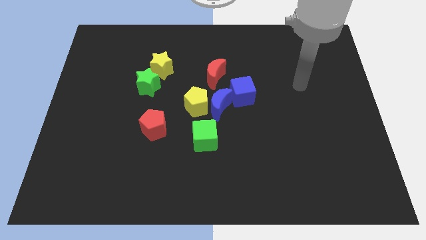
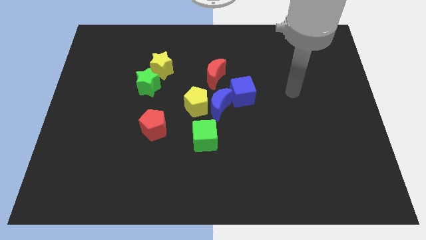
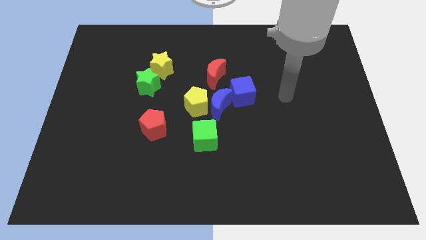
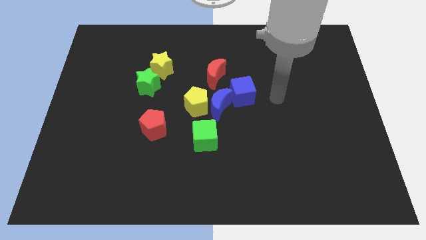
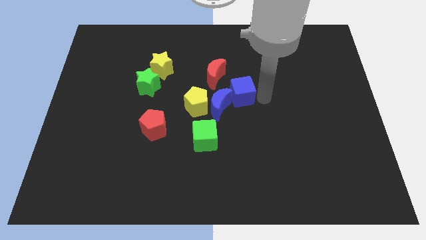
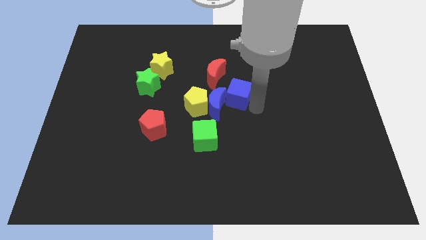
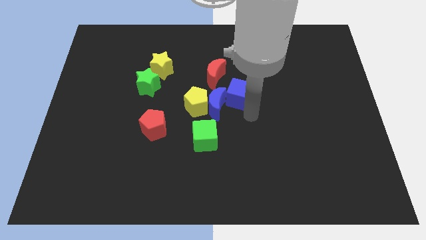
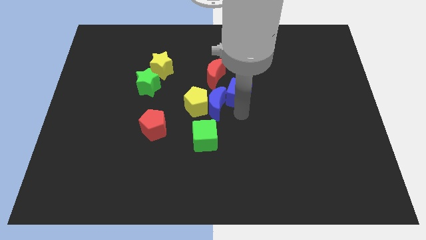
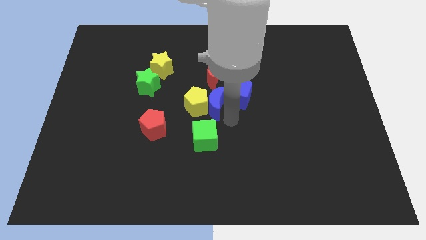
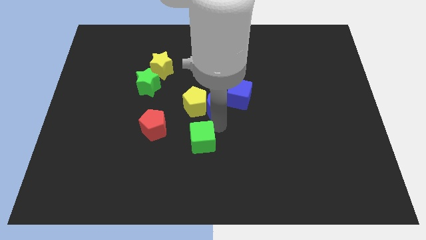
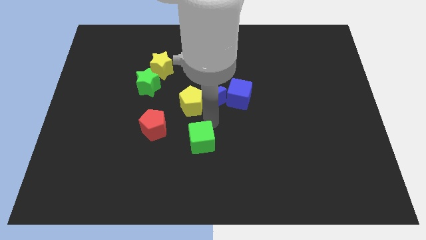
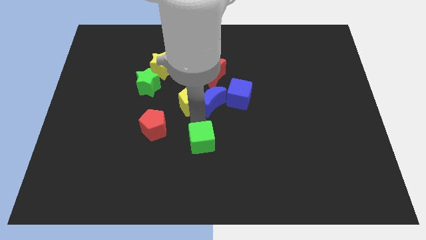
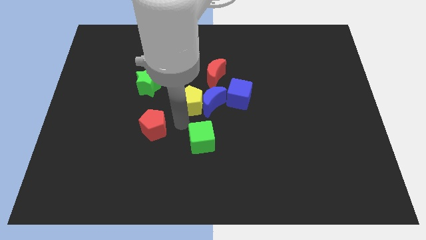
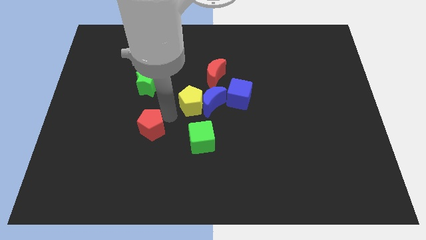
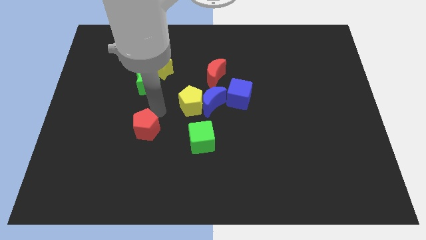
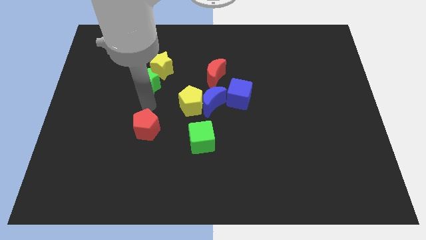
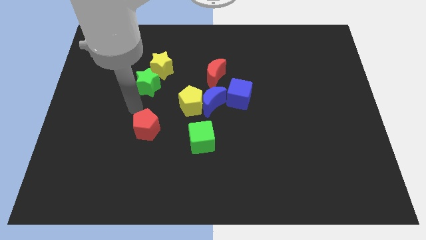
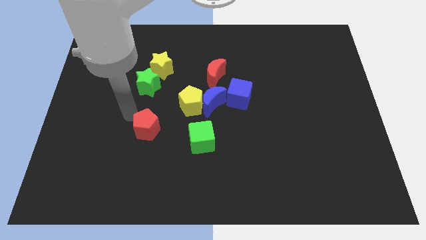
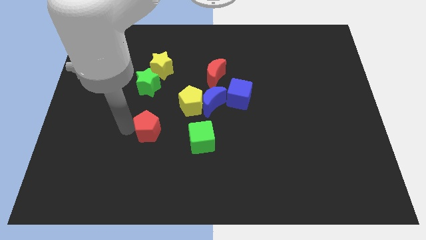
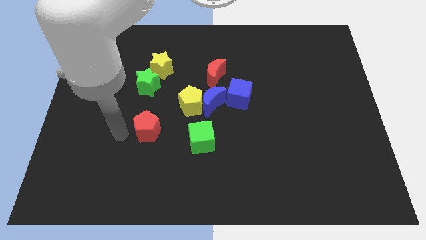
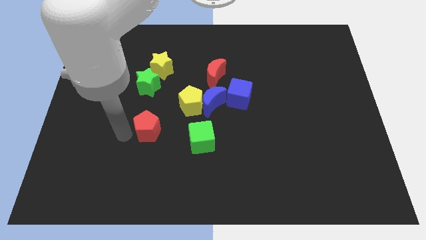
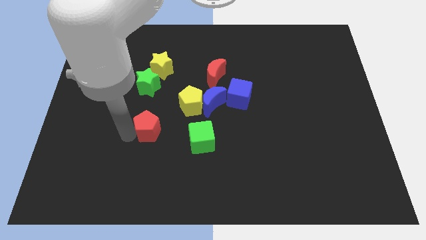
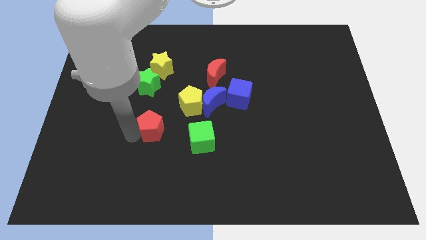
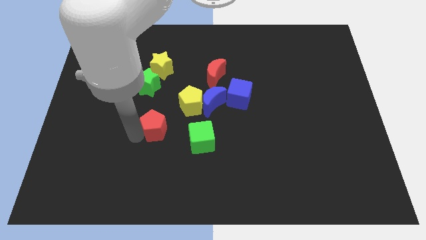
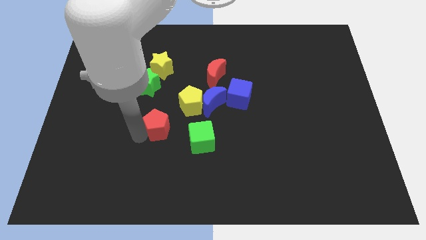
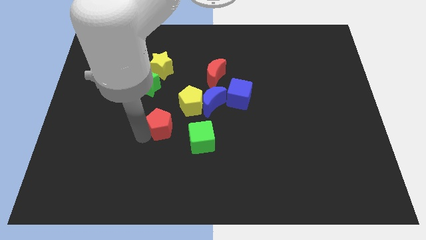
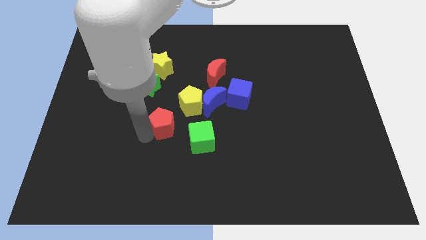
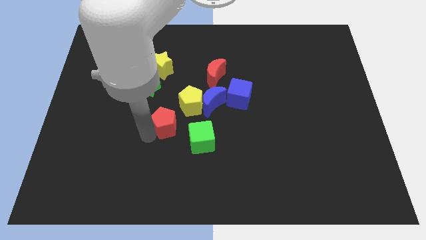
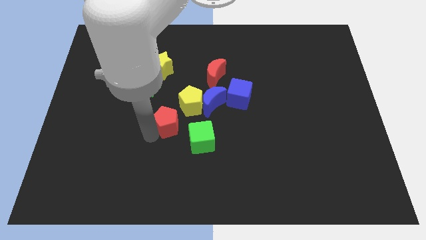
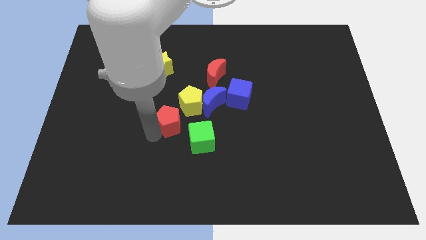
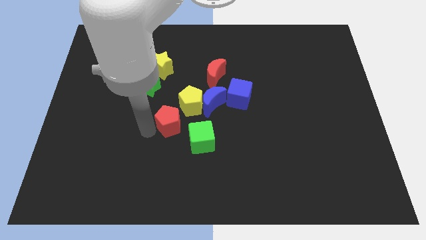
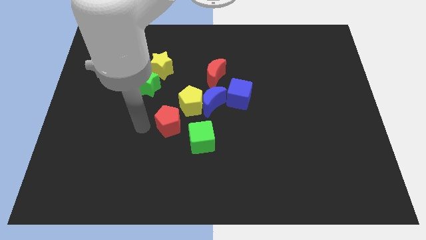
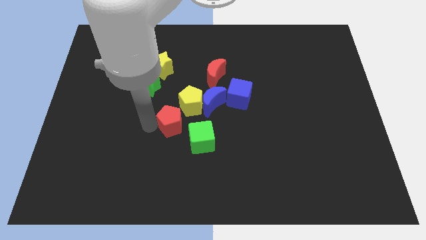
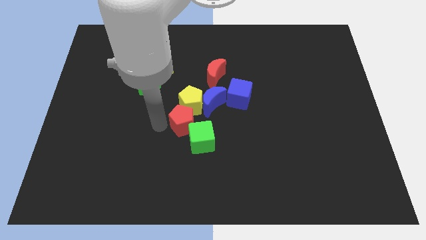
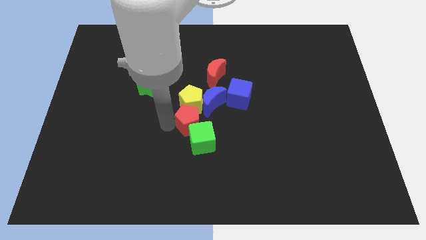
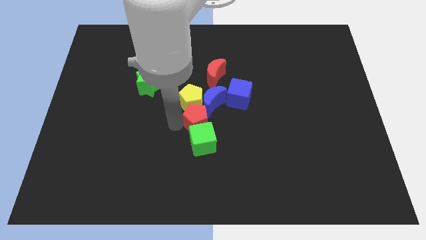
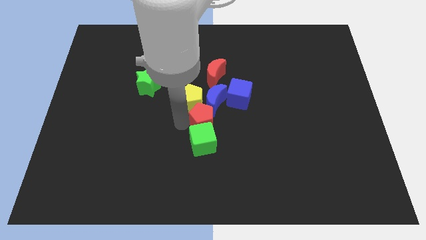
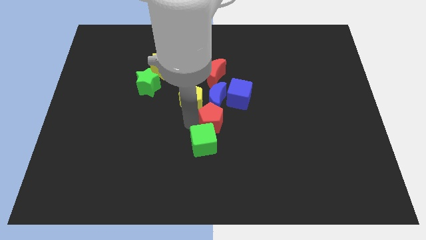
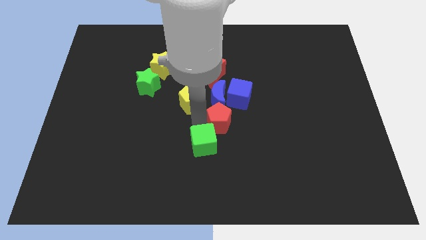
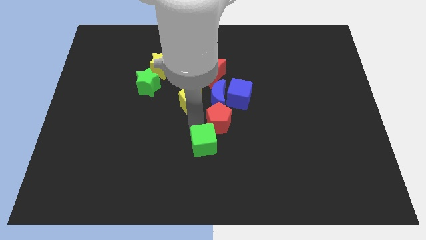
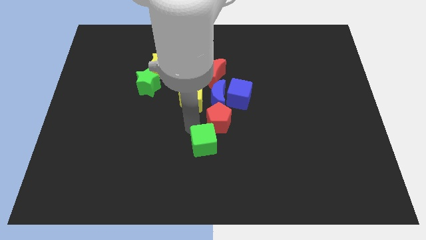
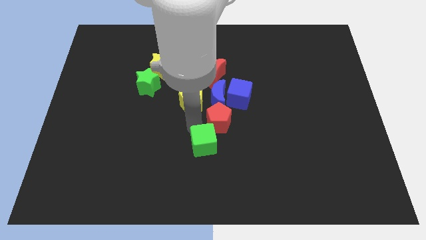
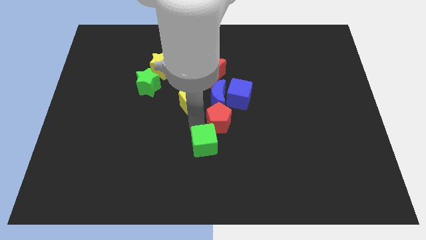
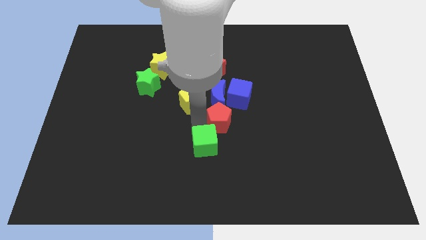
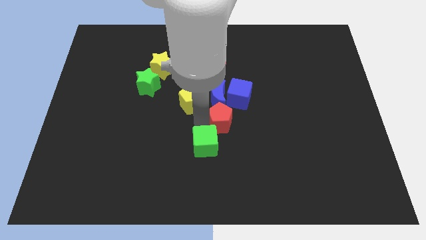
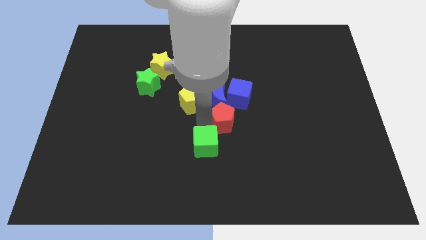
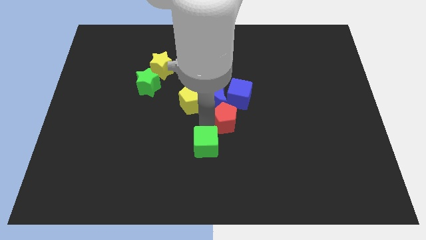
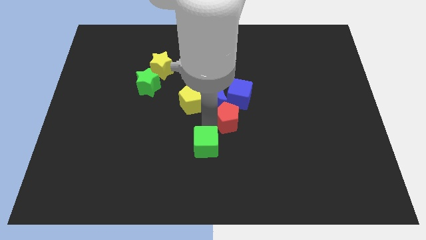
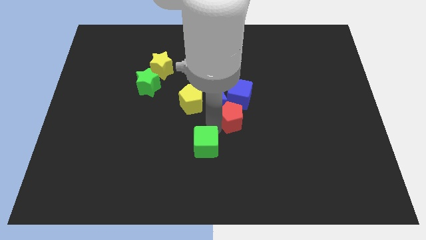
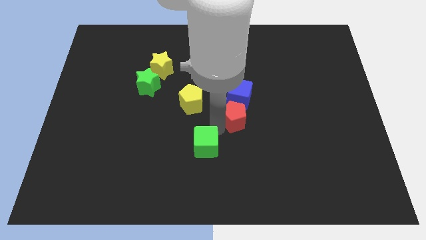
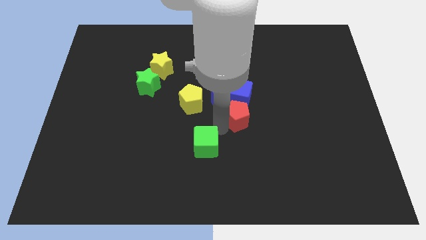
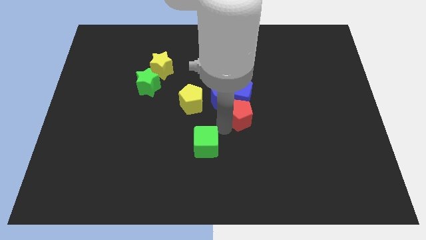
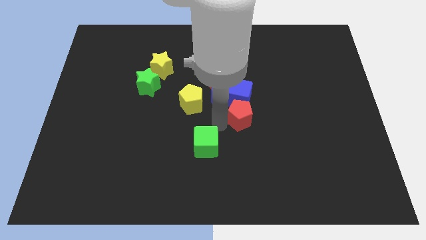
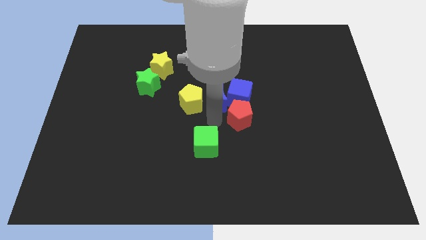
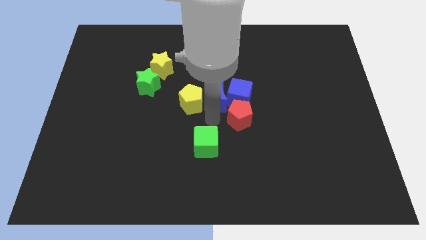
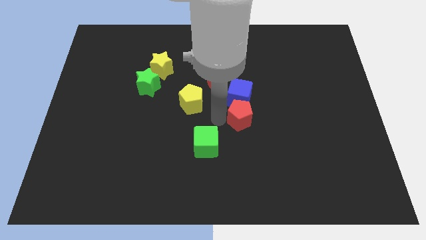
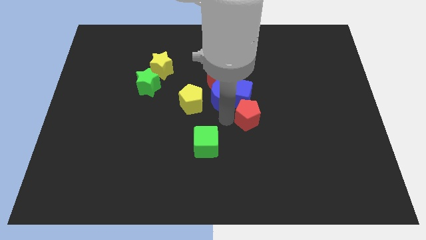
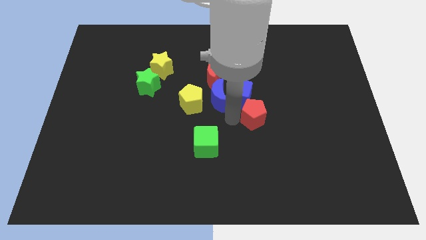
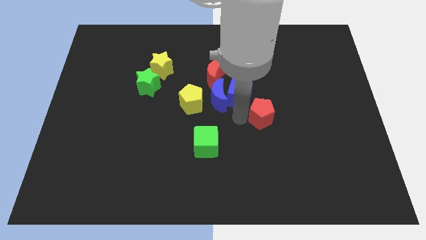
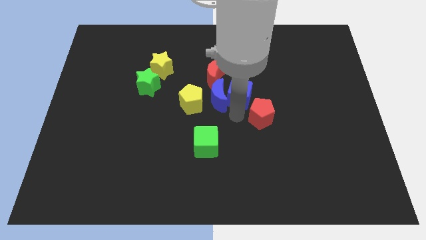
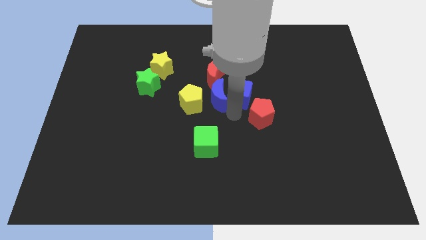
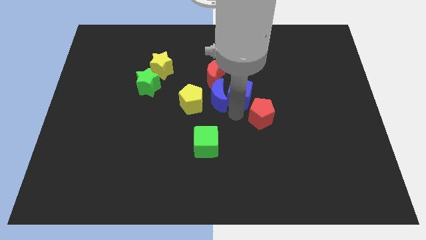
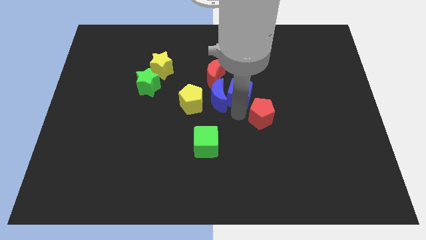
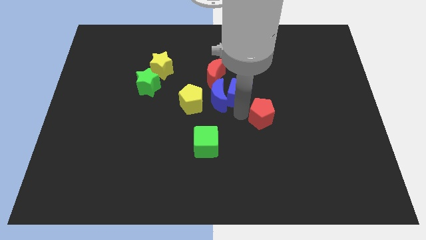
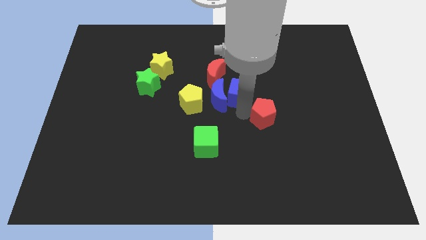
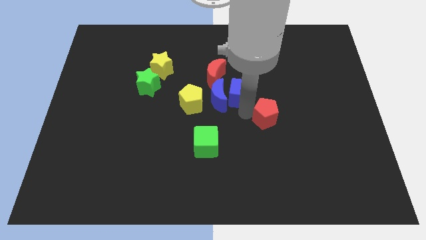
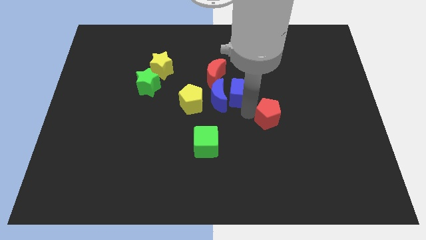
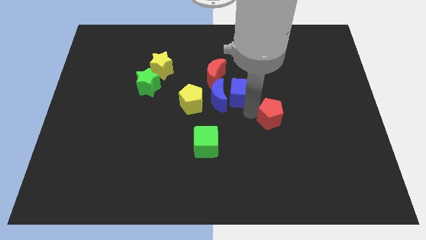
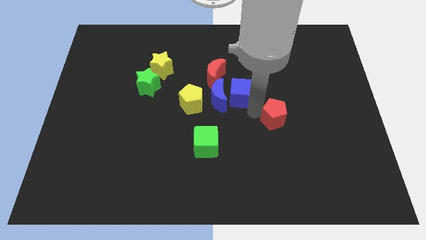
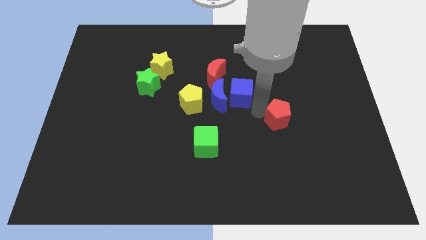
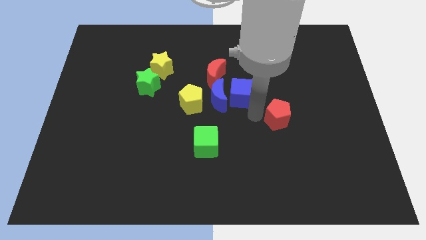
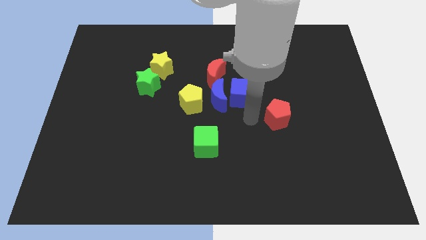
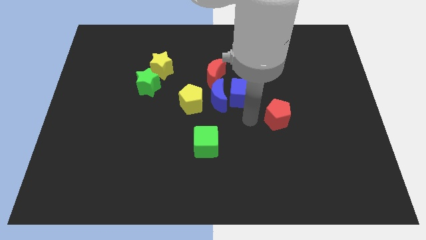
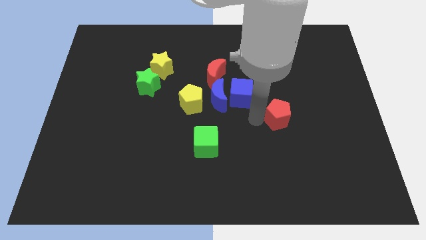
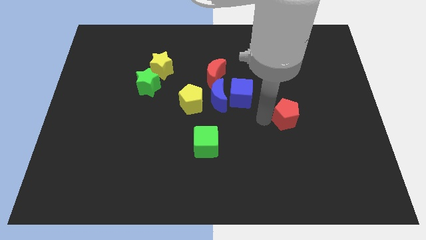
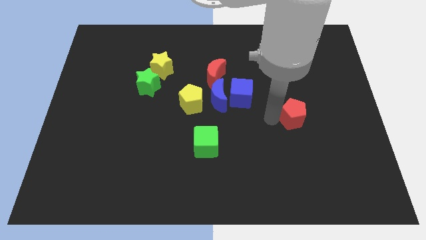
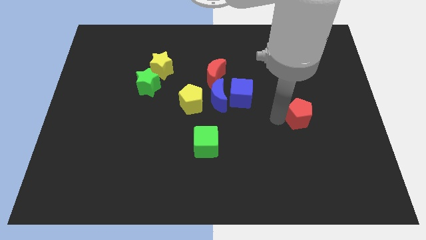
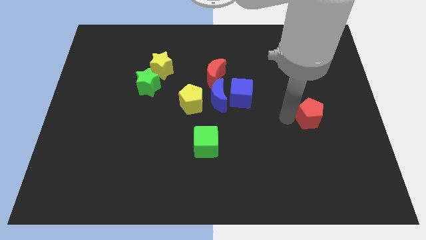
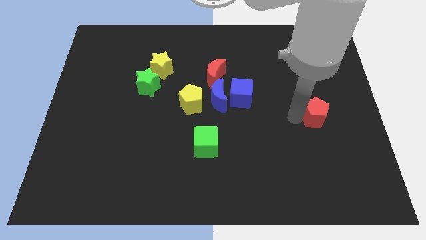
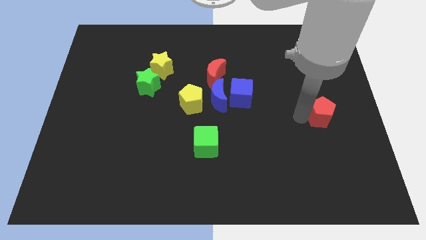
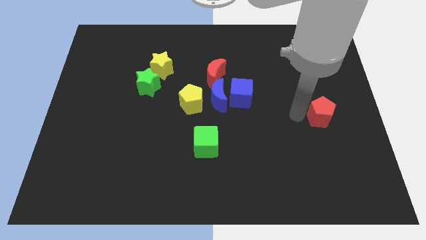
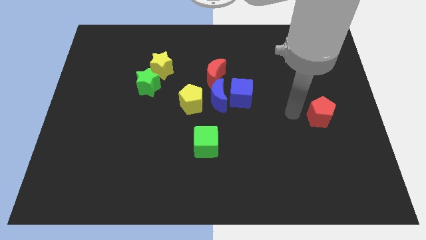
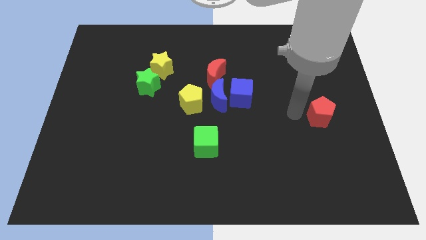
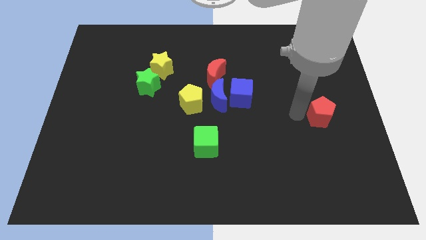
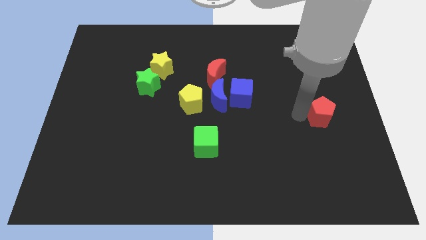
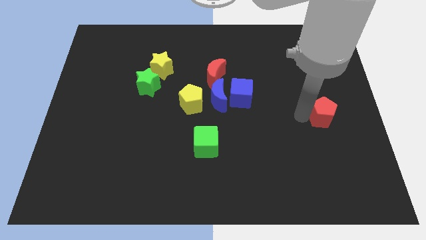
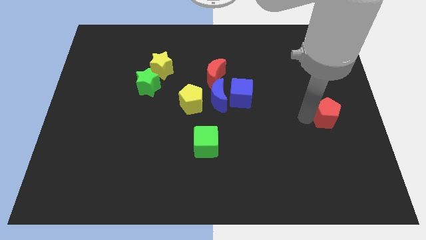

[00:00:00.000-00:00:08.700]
slide the red pentagon to the right side
